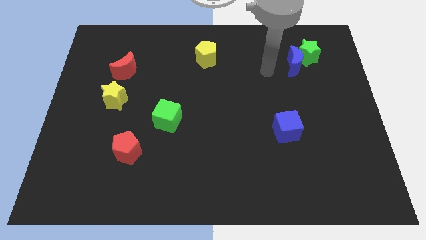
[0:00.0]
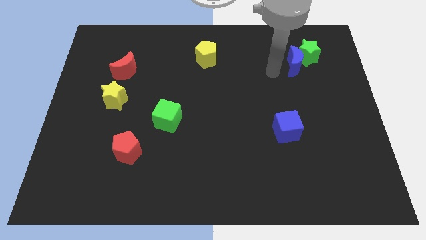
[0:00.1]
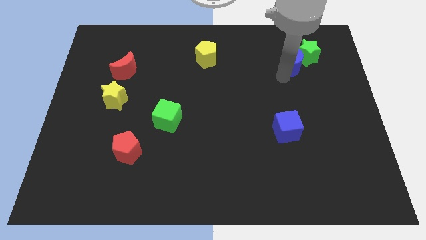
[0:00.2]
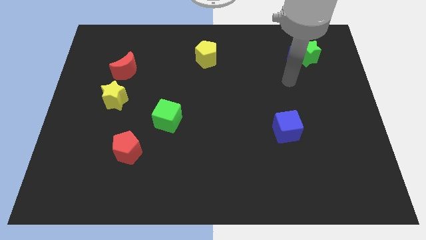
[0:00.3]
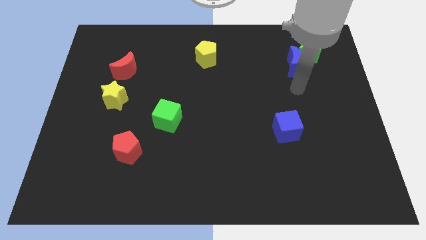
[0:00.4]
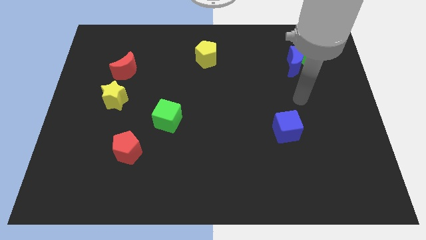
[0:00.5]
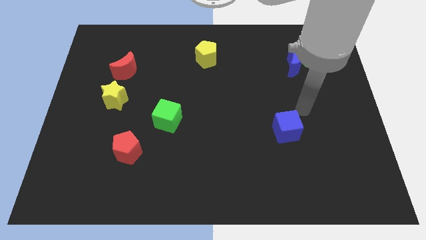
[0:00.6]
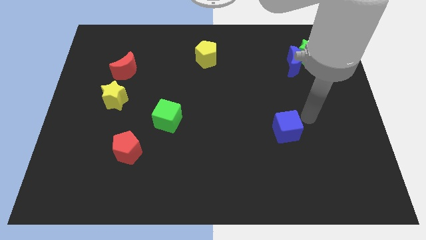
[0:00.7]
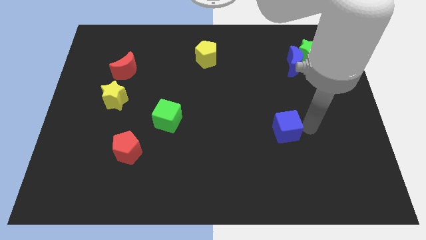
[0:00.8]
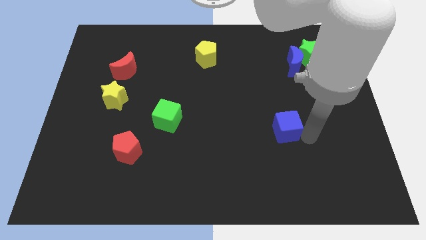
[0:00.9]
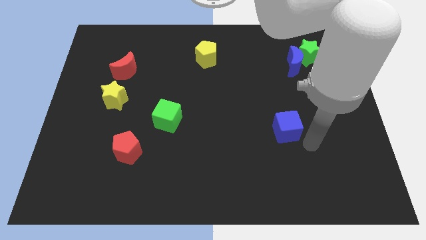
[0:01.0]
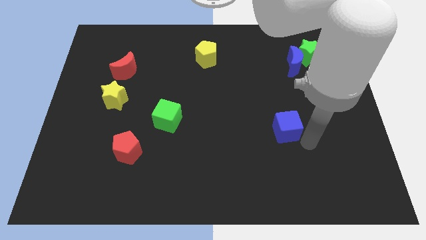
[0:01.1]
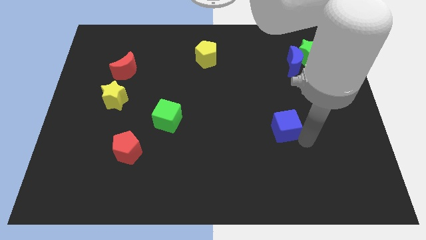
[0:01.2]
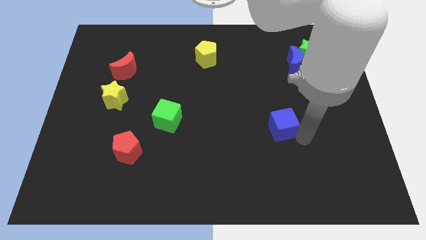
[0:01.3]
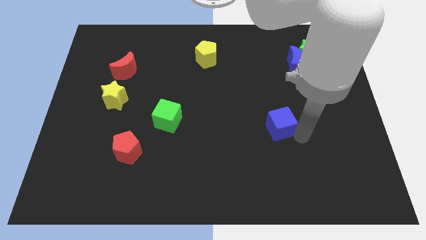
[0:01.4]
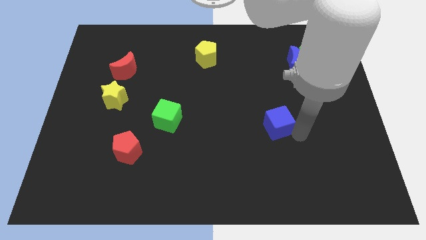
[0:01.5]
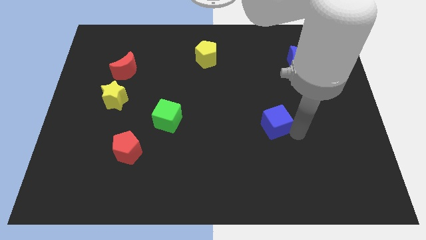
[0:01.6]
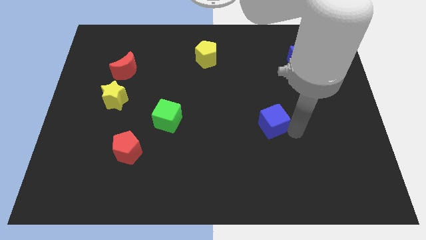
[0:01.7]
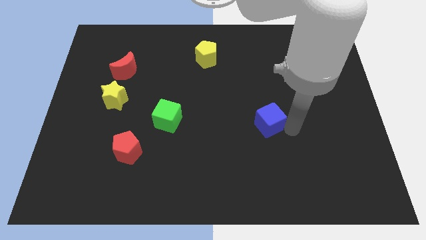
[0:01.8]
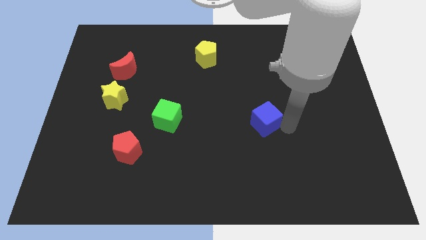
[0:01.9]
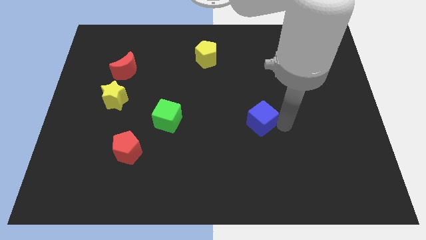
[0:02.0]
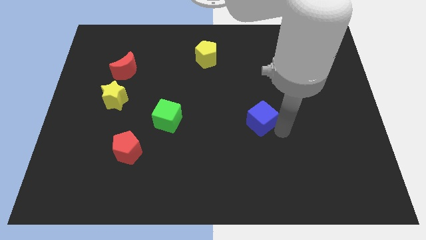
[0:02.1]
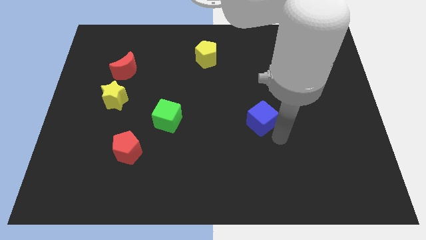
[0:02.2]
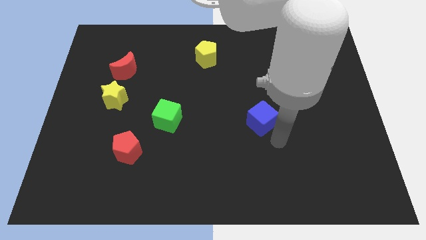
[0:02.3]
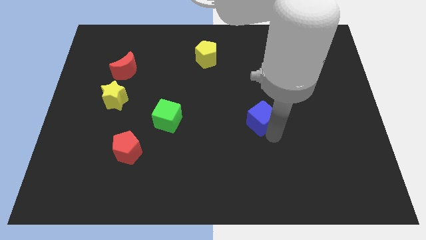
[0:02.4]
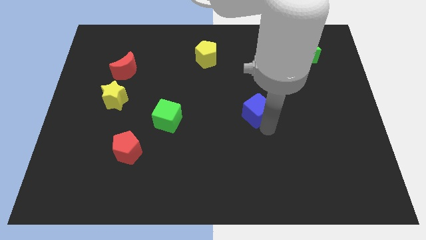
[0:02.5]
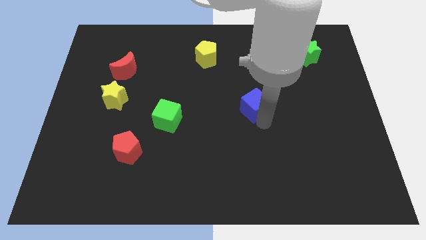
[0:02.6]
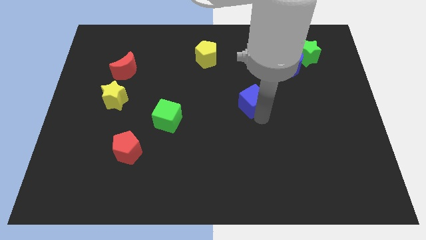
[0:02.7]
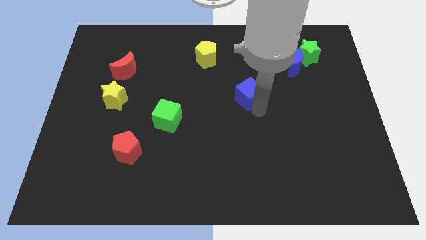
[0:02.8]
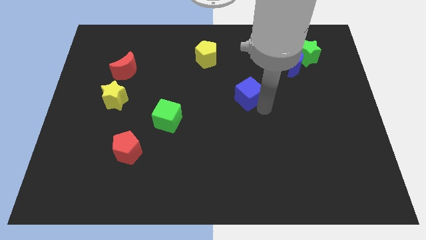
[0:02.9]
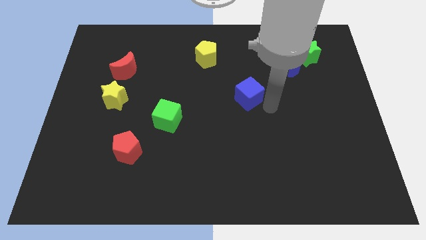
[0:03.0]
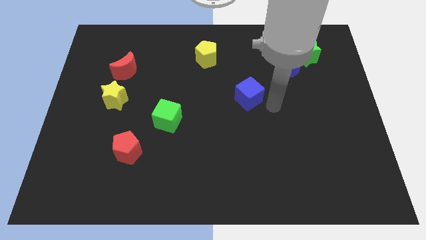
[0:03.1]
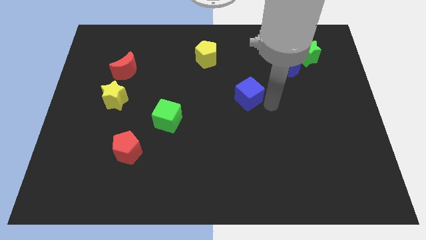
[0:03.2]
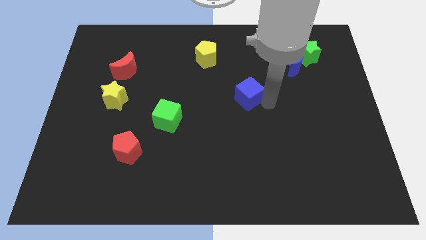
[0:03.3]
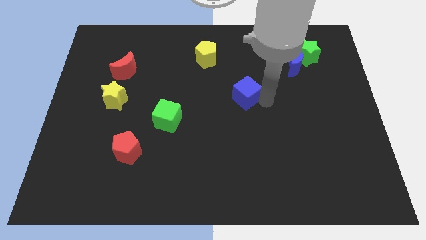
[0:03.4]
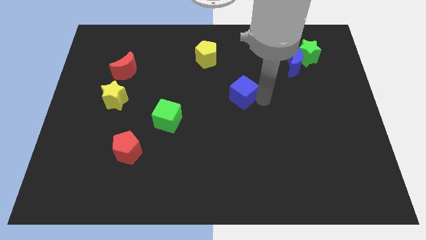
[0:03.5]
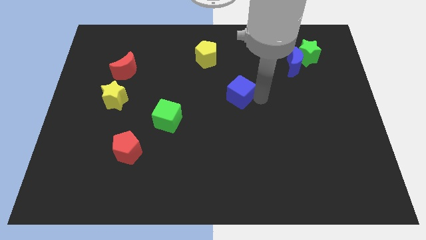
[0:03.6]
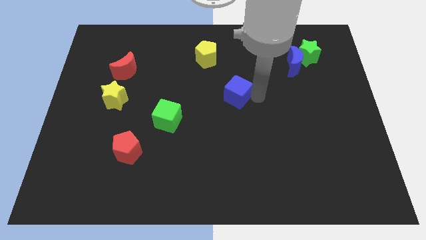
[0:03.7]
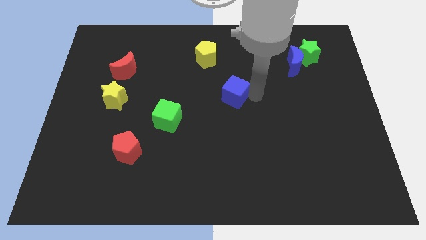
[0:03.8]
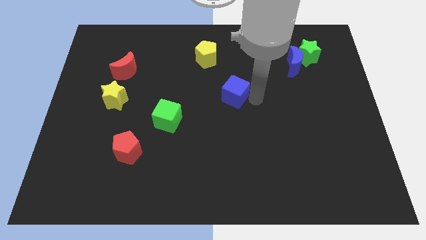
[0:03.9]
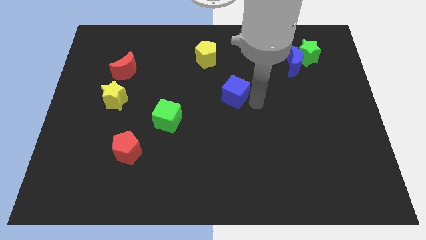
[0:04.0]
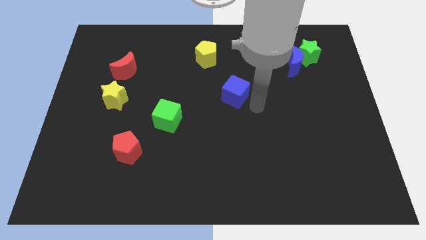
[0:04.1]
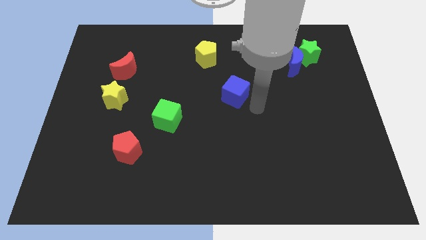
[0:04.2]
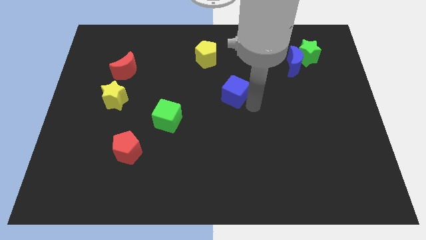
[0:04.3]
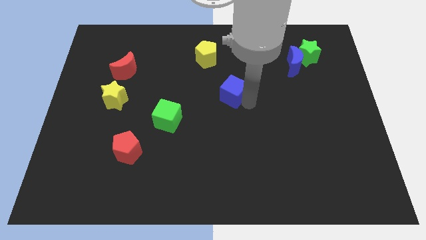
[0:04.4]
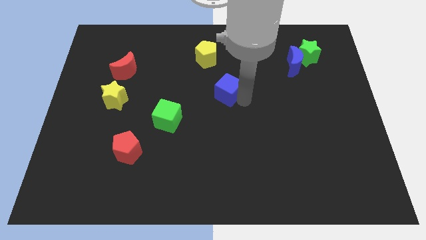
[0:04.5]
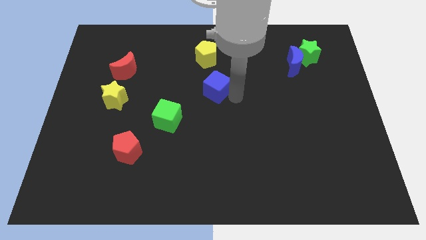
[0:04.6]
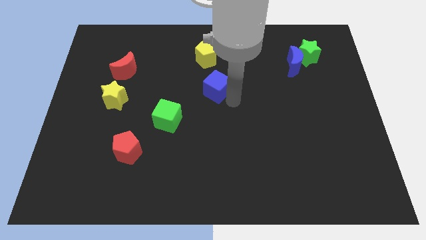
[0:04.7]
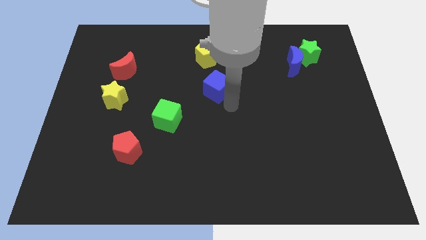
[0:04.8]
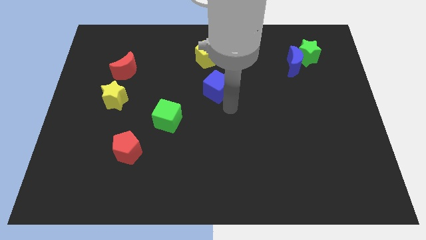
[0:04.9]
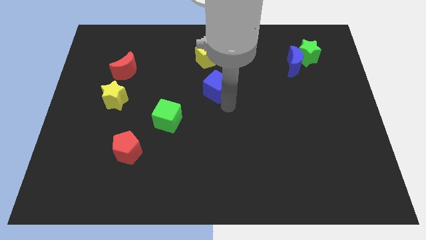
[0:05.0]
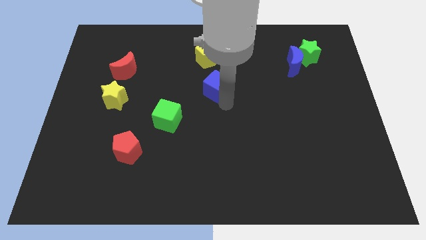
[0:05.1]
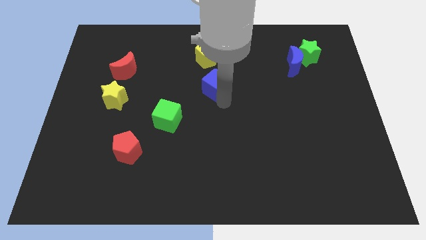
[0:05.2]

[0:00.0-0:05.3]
move the blue cube upwards and to the left

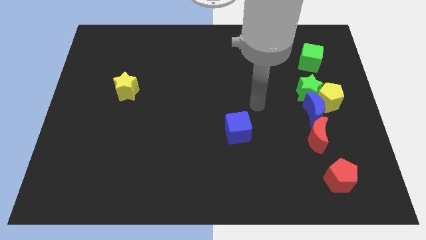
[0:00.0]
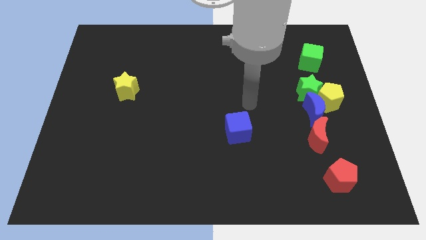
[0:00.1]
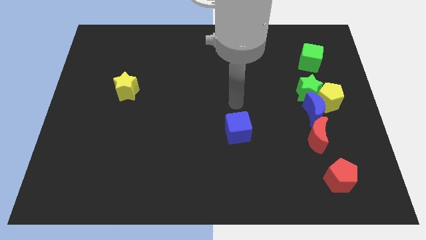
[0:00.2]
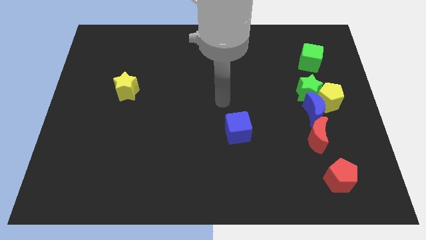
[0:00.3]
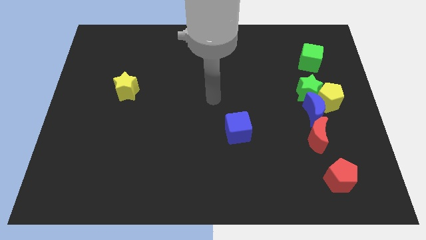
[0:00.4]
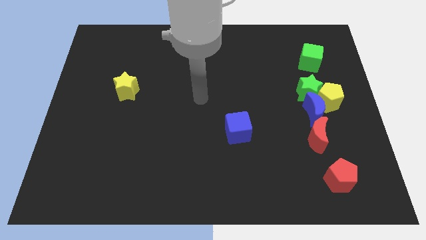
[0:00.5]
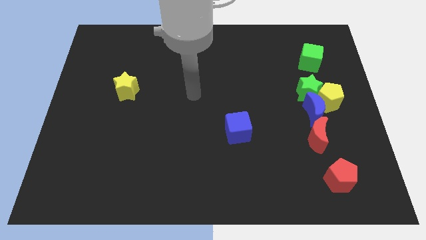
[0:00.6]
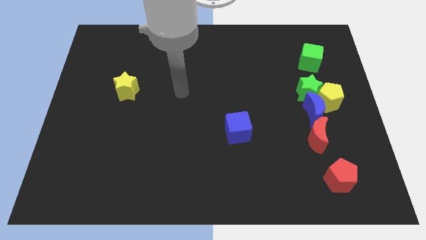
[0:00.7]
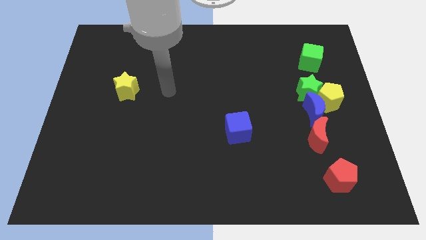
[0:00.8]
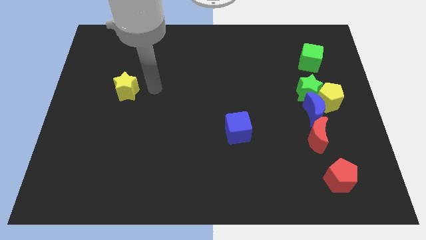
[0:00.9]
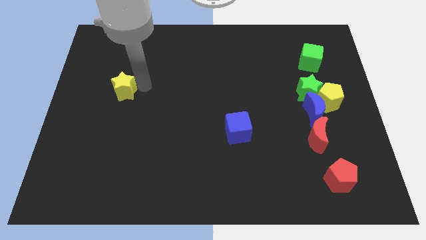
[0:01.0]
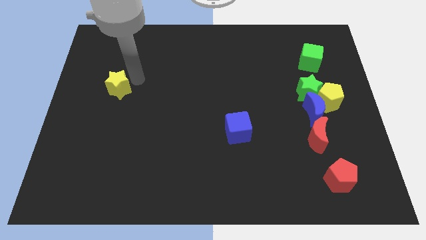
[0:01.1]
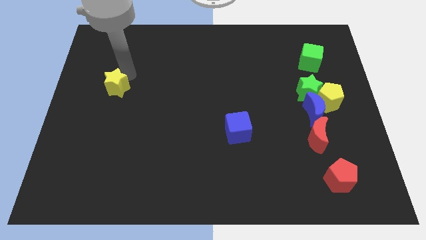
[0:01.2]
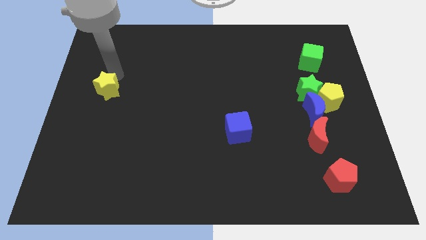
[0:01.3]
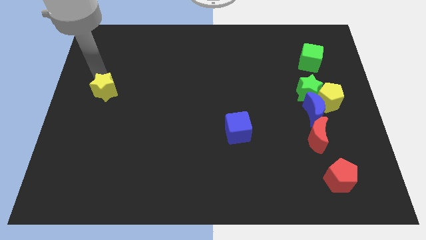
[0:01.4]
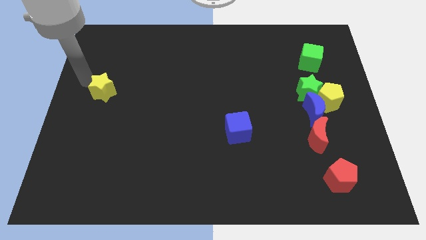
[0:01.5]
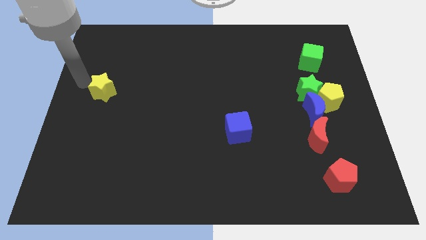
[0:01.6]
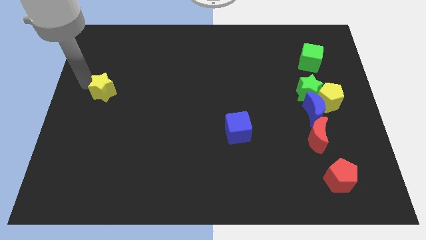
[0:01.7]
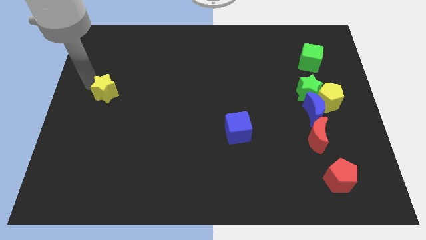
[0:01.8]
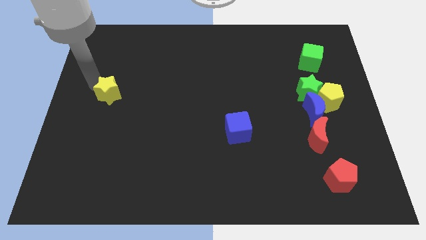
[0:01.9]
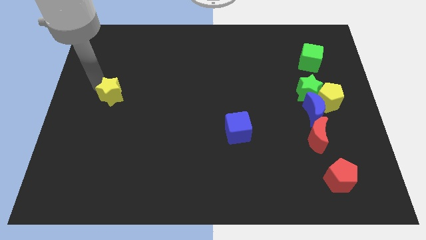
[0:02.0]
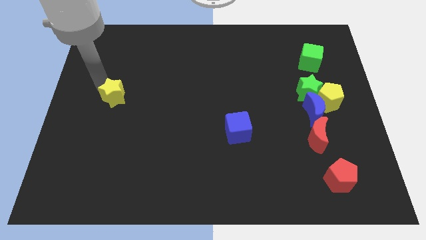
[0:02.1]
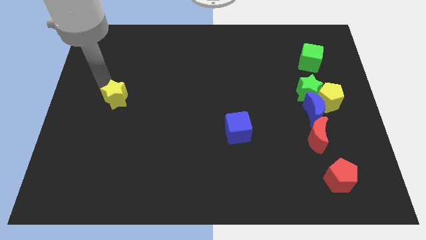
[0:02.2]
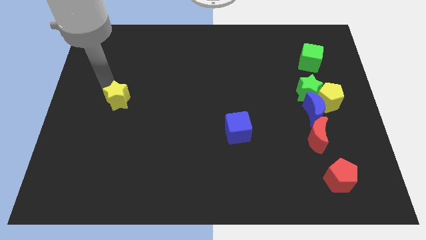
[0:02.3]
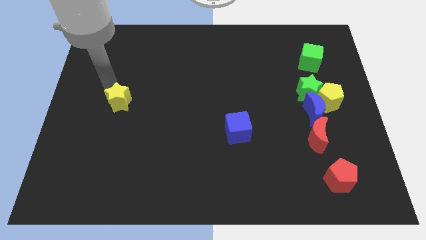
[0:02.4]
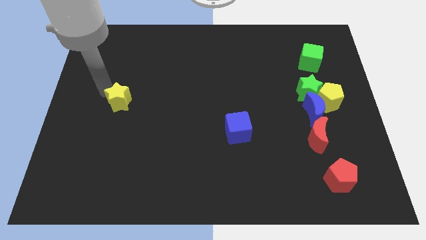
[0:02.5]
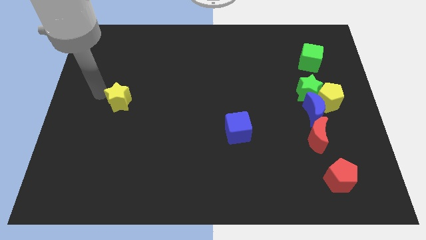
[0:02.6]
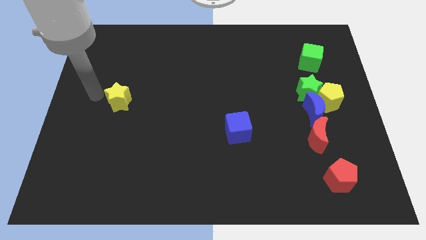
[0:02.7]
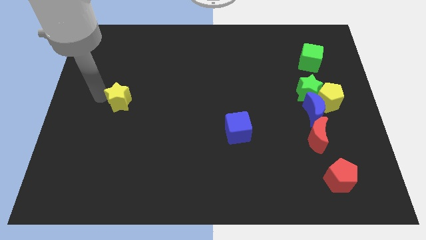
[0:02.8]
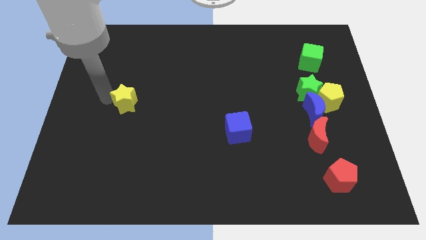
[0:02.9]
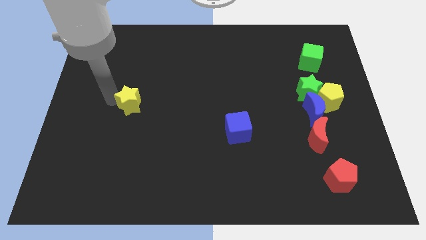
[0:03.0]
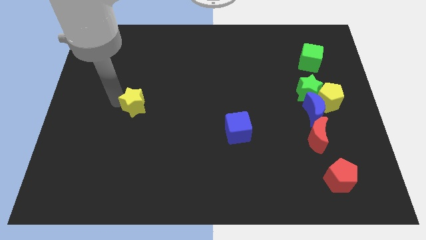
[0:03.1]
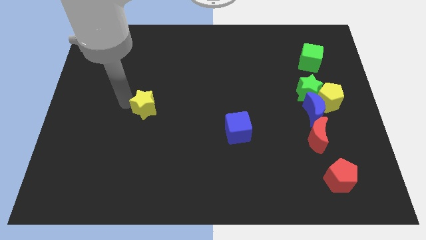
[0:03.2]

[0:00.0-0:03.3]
push the yellow star a little bit downwards and right diagonally
